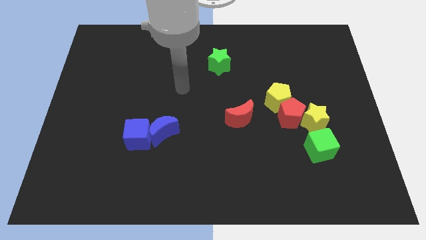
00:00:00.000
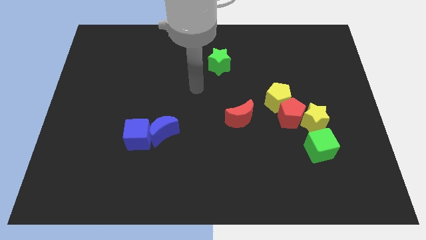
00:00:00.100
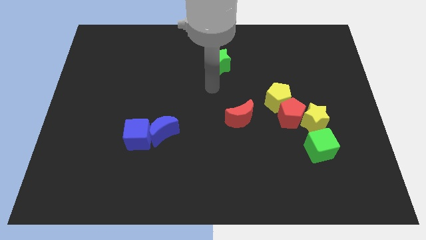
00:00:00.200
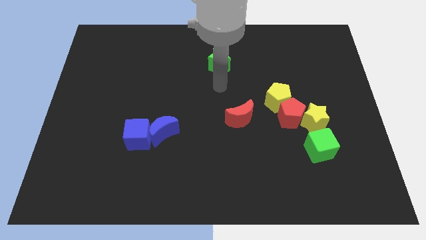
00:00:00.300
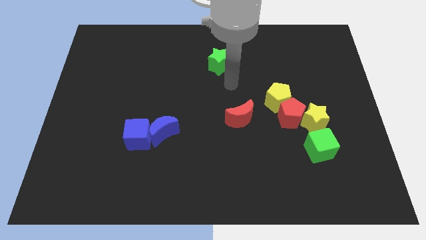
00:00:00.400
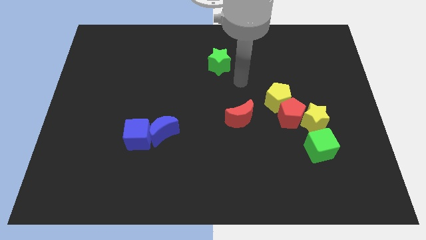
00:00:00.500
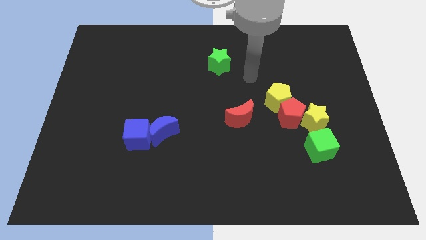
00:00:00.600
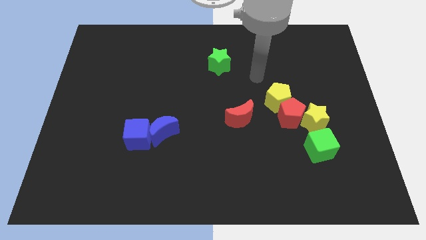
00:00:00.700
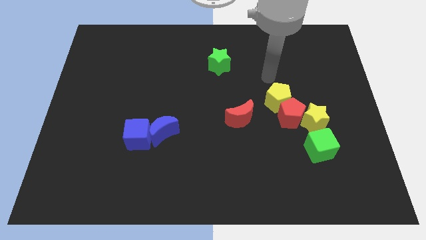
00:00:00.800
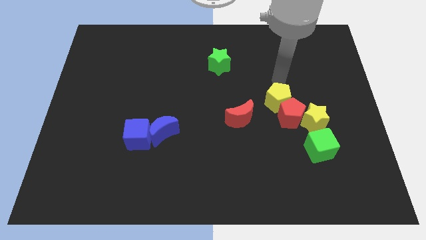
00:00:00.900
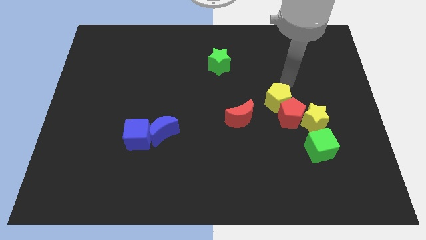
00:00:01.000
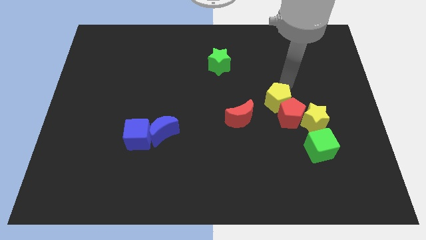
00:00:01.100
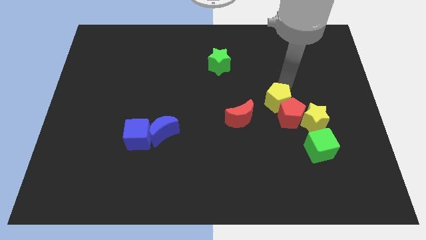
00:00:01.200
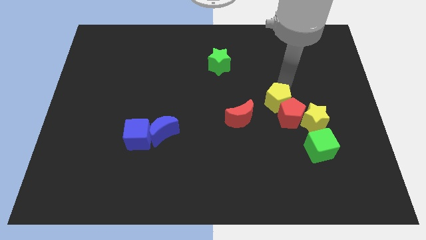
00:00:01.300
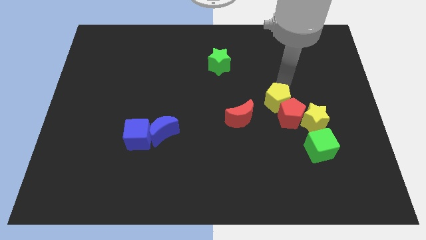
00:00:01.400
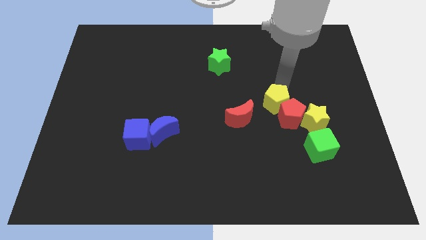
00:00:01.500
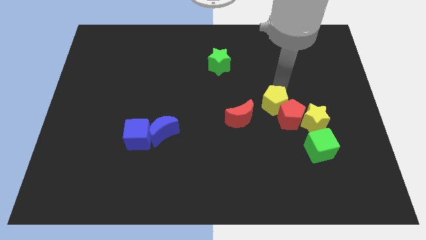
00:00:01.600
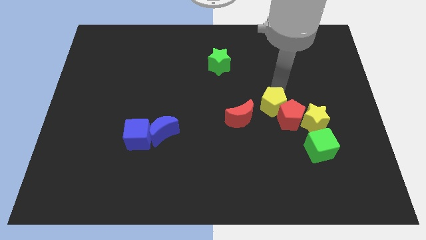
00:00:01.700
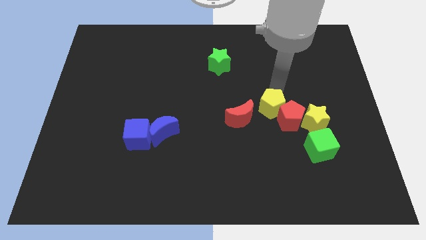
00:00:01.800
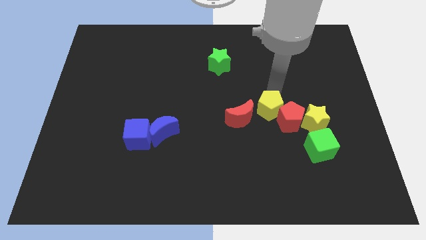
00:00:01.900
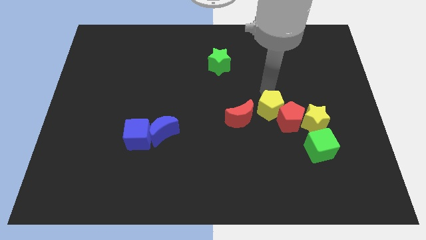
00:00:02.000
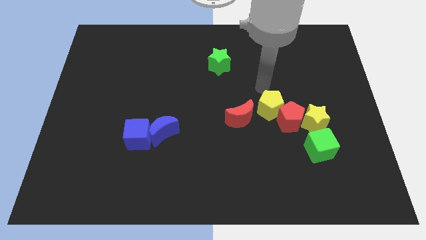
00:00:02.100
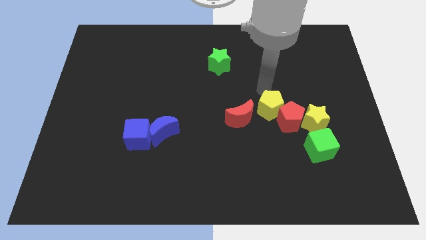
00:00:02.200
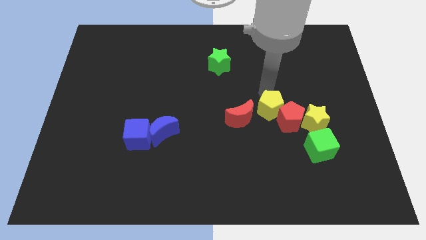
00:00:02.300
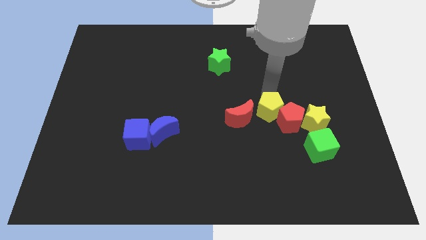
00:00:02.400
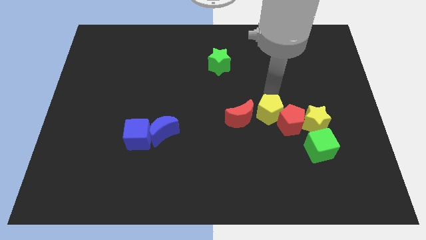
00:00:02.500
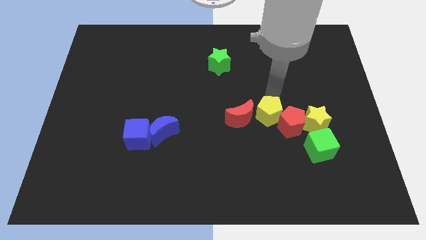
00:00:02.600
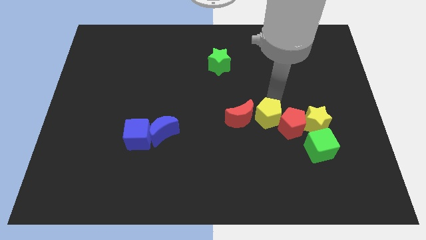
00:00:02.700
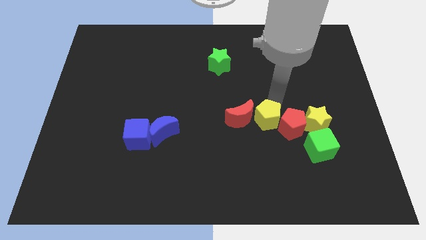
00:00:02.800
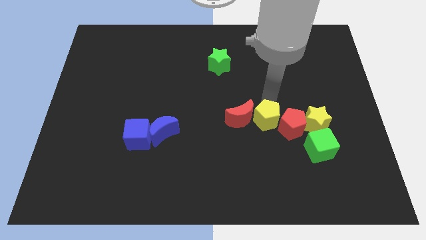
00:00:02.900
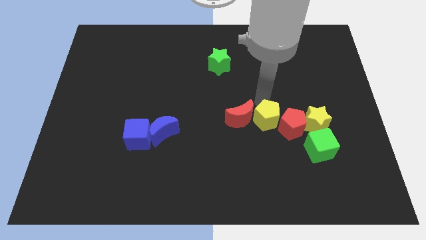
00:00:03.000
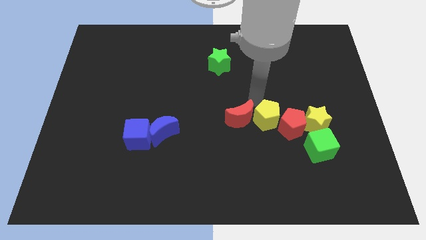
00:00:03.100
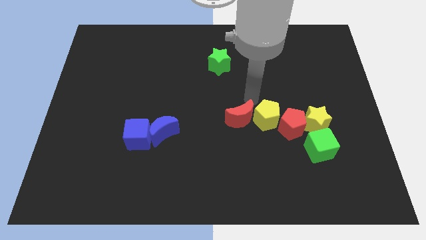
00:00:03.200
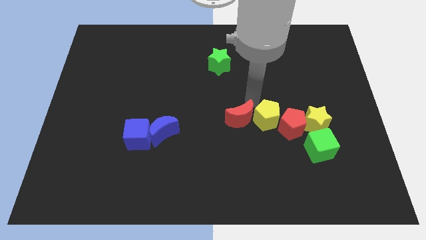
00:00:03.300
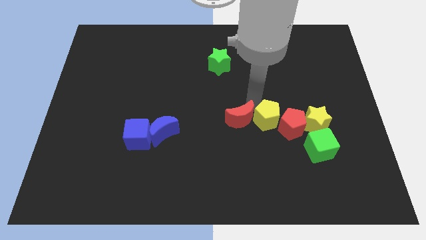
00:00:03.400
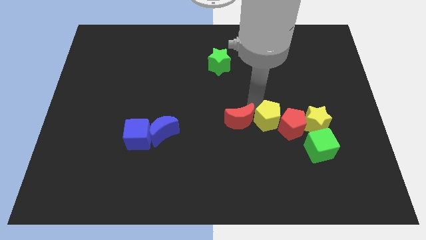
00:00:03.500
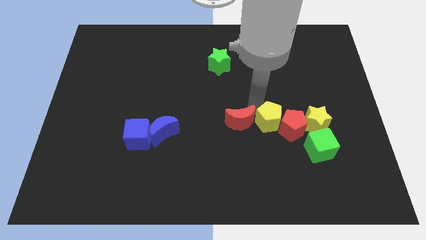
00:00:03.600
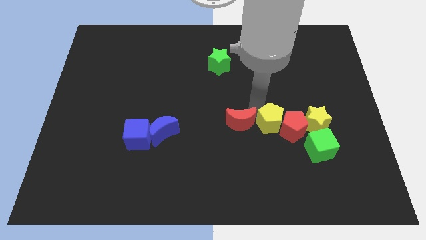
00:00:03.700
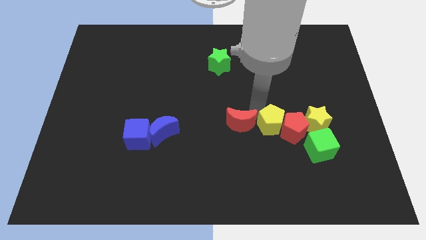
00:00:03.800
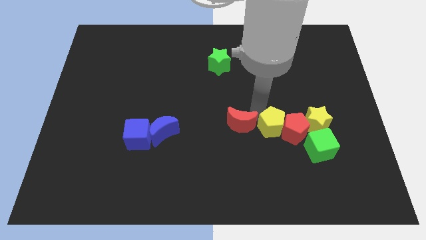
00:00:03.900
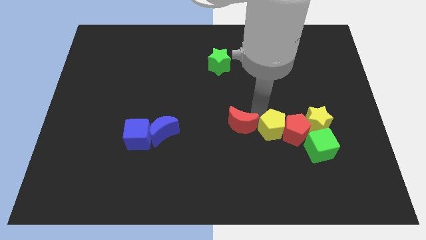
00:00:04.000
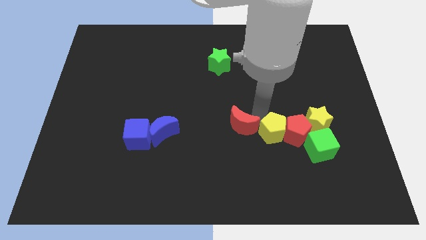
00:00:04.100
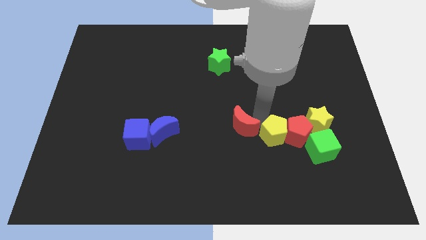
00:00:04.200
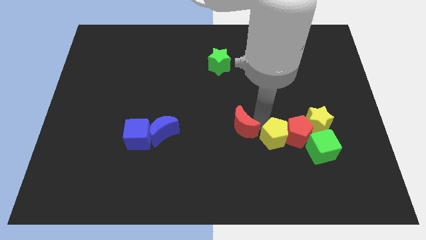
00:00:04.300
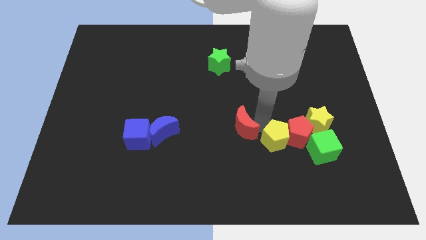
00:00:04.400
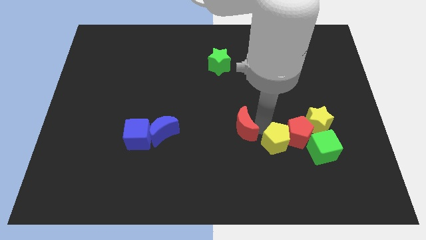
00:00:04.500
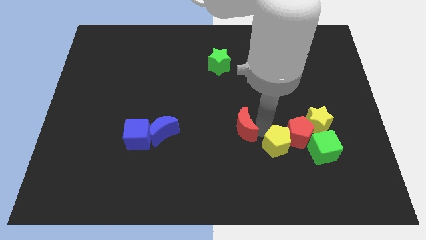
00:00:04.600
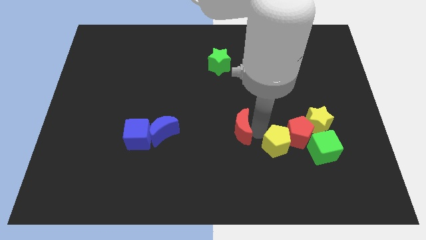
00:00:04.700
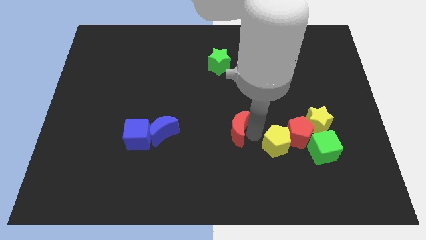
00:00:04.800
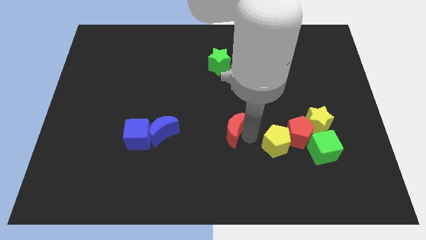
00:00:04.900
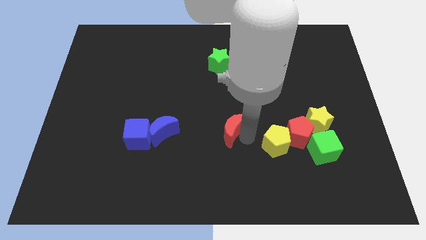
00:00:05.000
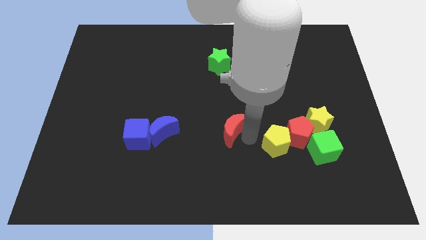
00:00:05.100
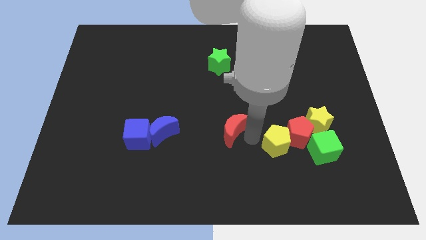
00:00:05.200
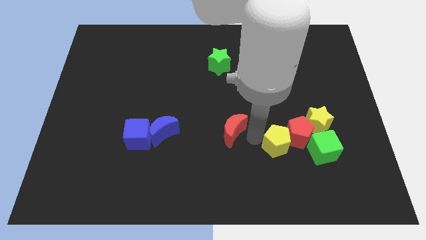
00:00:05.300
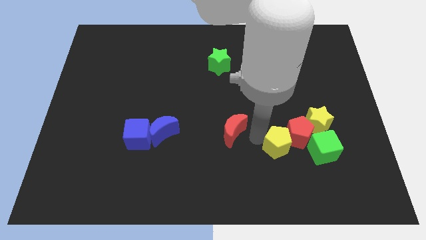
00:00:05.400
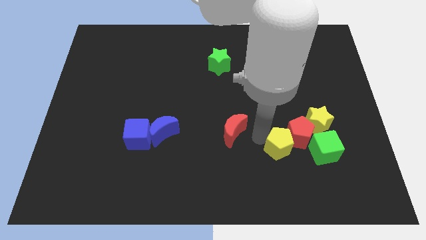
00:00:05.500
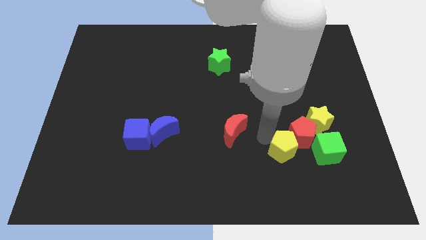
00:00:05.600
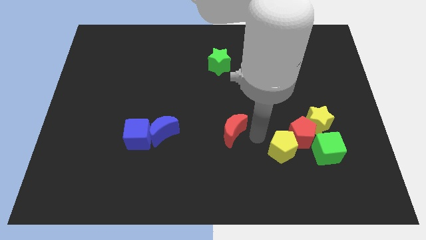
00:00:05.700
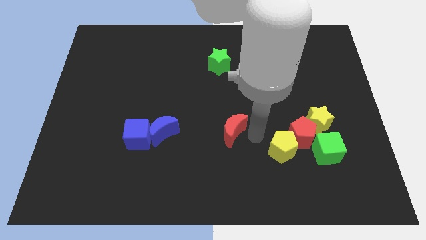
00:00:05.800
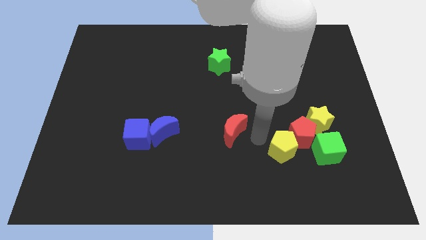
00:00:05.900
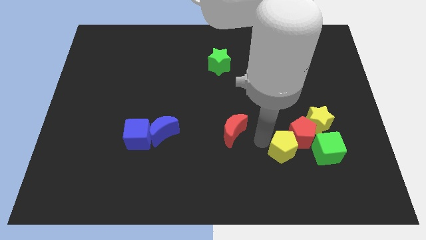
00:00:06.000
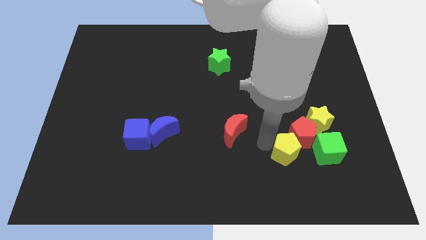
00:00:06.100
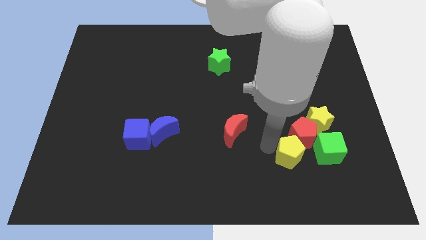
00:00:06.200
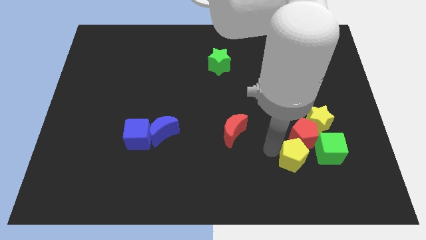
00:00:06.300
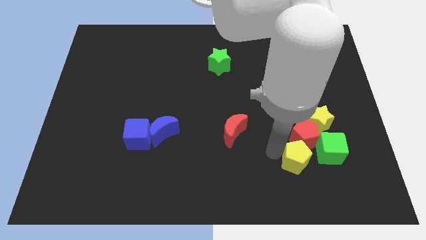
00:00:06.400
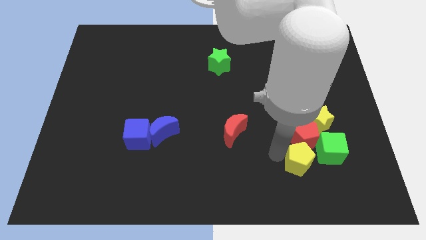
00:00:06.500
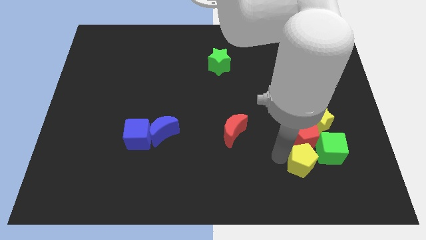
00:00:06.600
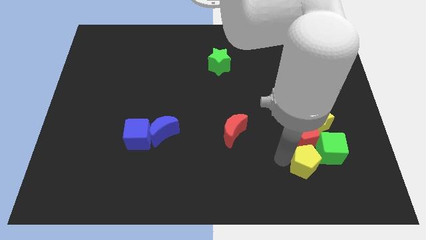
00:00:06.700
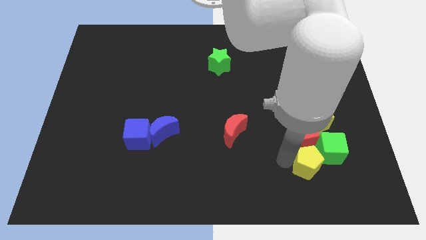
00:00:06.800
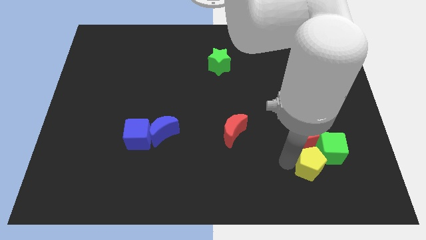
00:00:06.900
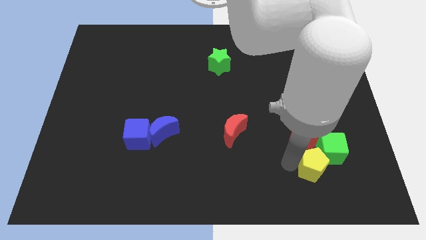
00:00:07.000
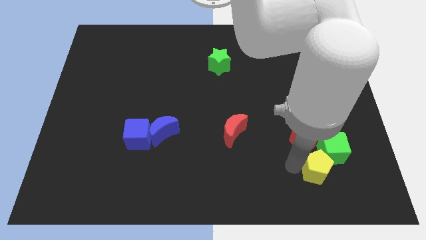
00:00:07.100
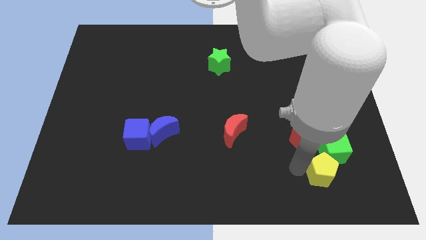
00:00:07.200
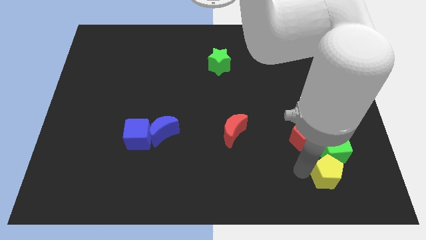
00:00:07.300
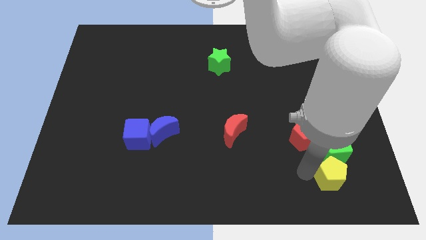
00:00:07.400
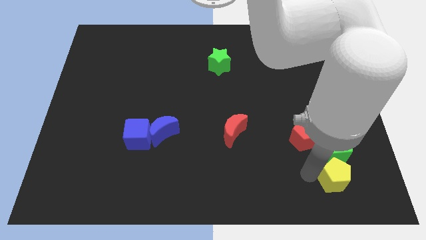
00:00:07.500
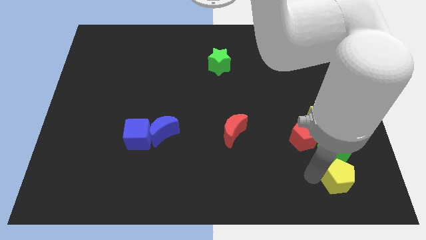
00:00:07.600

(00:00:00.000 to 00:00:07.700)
slide the yellow pentagon to the bottom right side of the green cube
